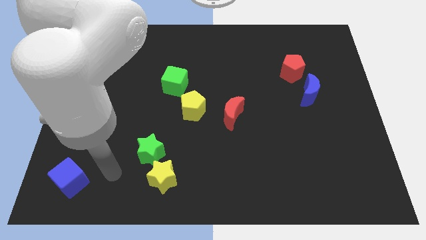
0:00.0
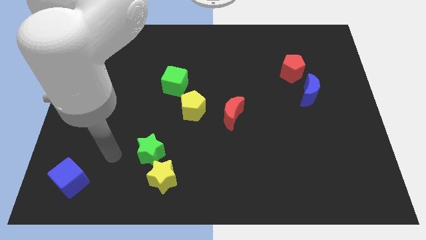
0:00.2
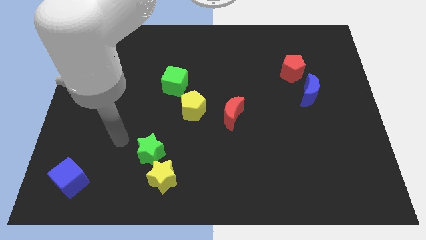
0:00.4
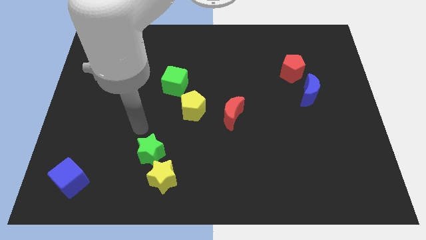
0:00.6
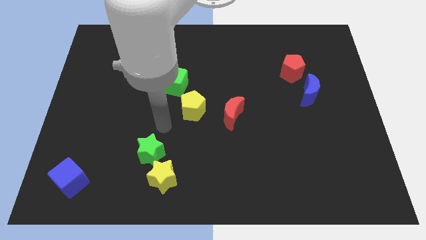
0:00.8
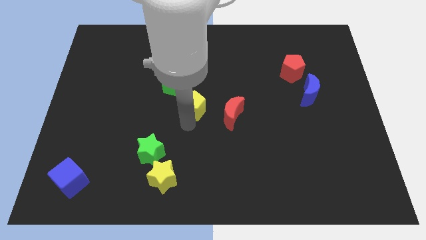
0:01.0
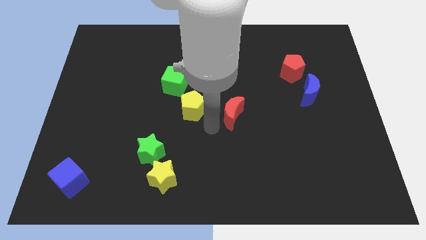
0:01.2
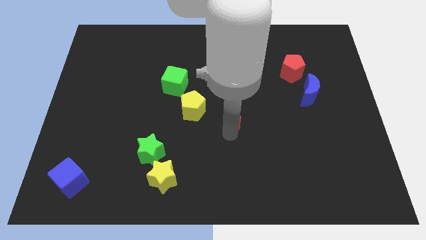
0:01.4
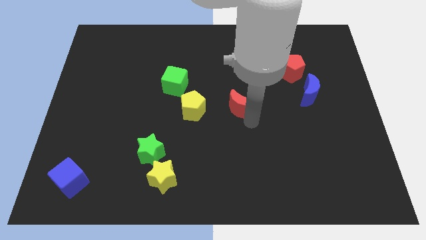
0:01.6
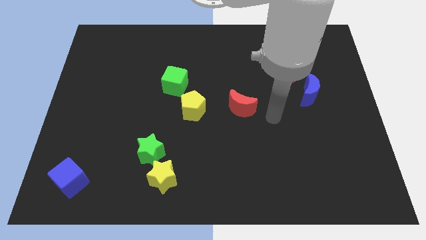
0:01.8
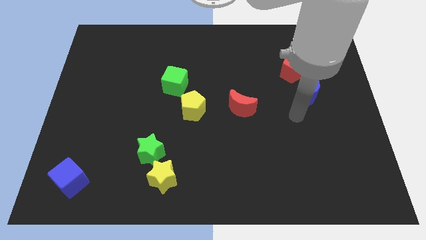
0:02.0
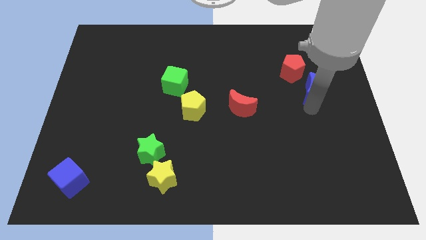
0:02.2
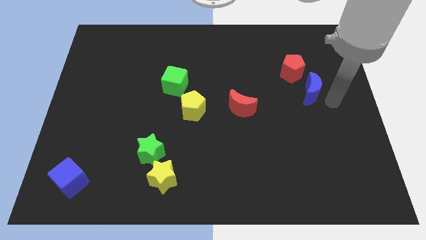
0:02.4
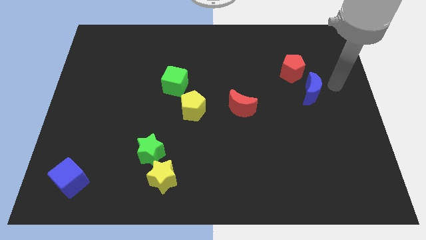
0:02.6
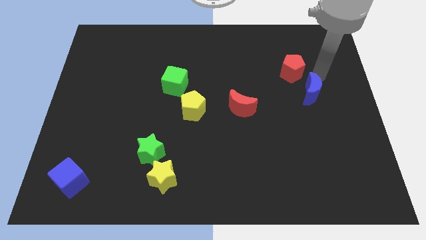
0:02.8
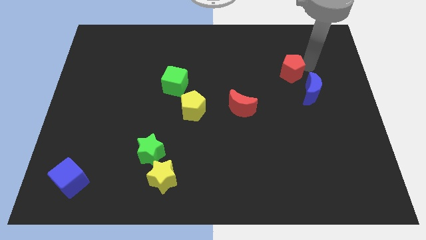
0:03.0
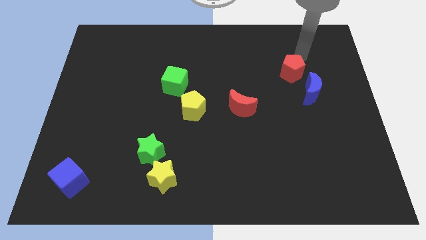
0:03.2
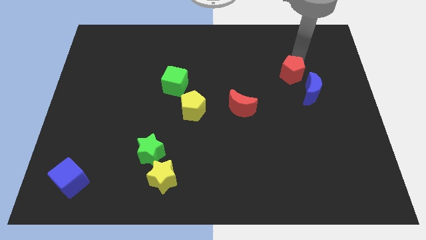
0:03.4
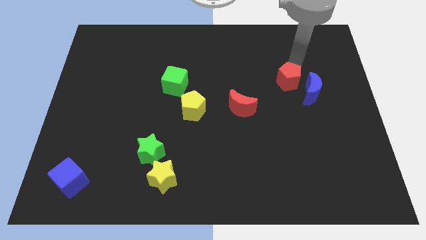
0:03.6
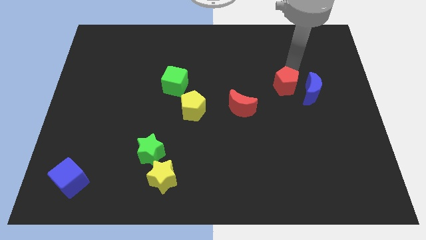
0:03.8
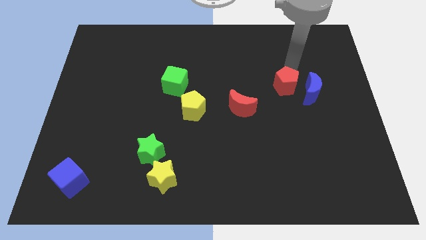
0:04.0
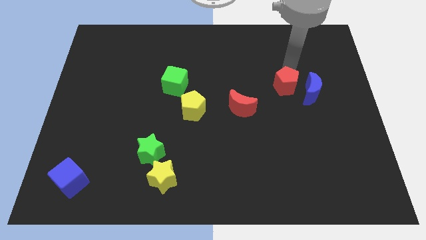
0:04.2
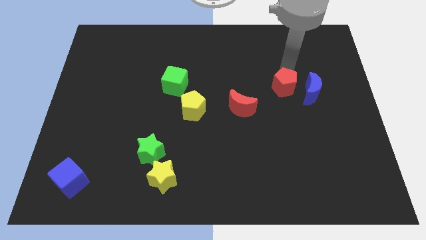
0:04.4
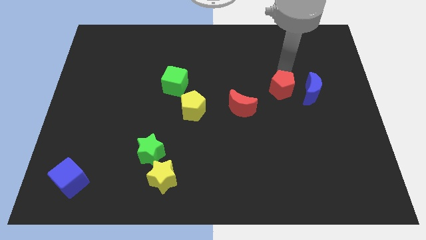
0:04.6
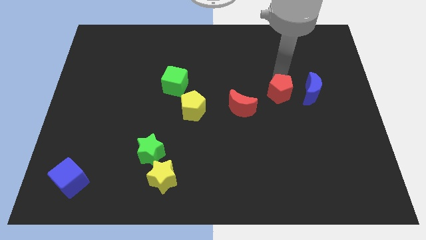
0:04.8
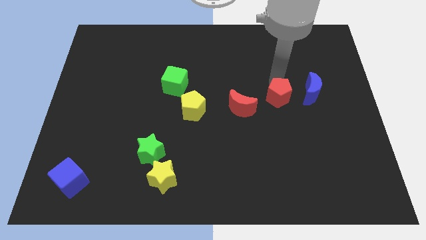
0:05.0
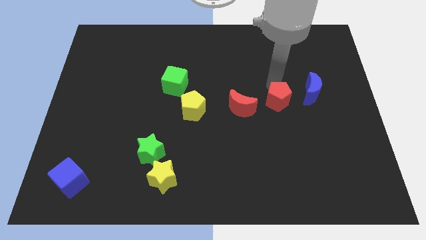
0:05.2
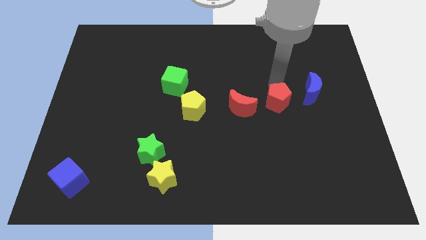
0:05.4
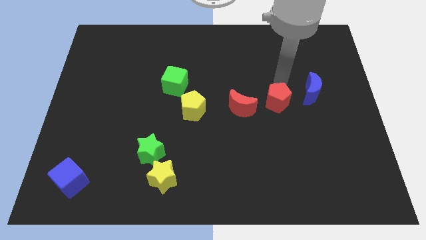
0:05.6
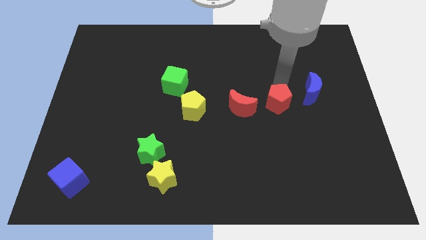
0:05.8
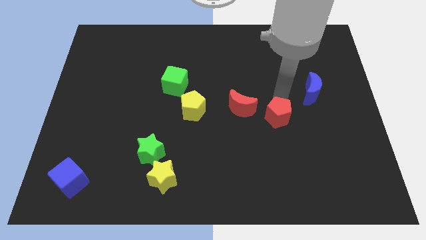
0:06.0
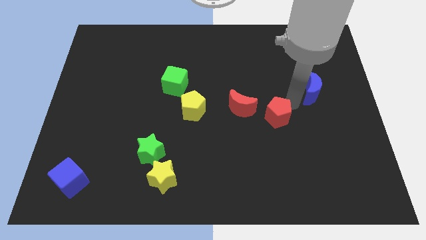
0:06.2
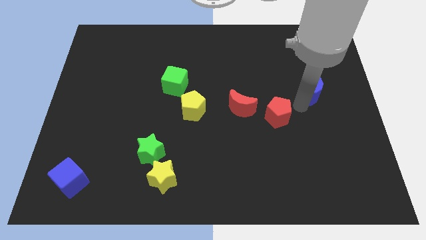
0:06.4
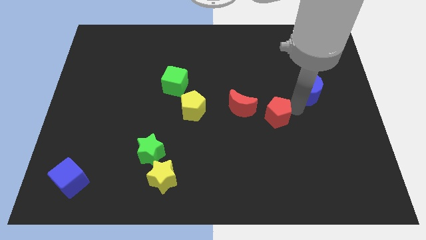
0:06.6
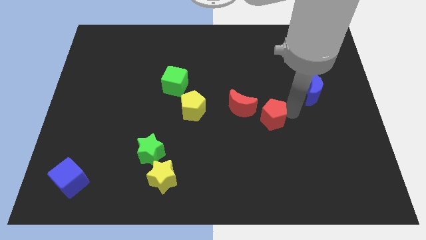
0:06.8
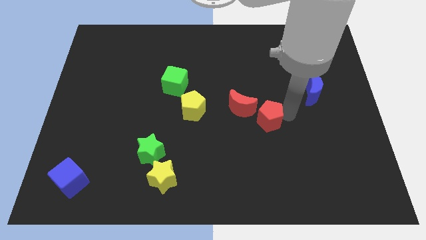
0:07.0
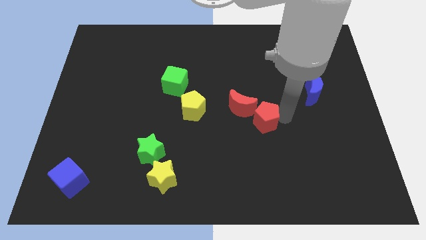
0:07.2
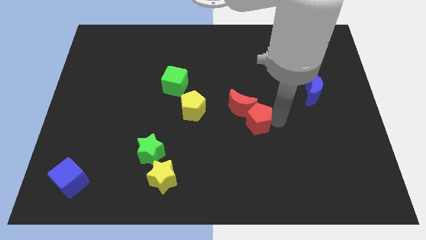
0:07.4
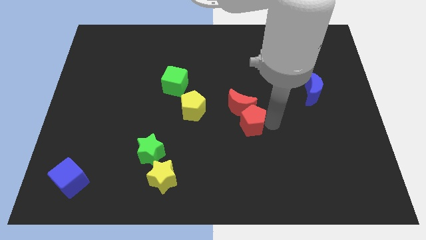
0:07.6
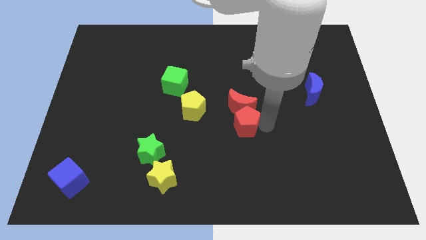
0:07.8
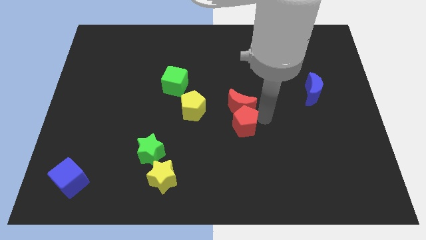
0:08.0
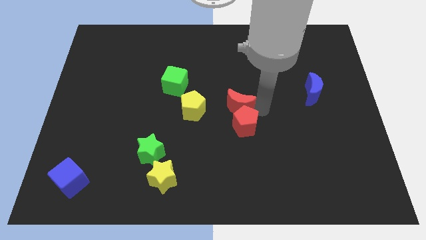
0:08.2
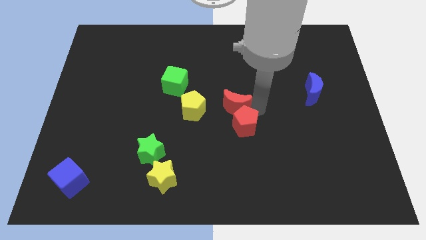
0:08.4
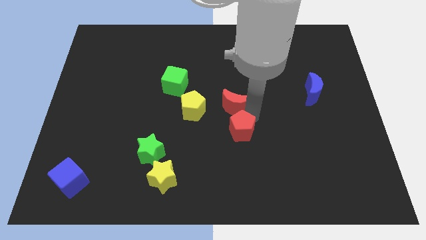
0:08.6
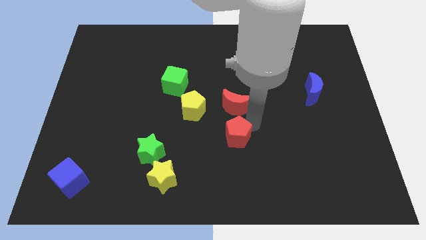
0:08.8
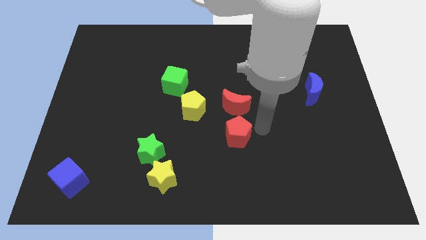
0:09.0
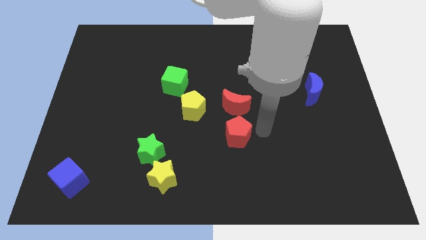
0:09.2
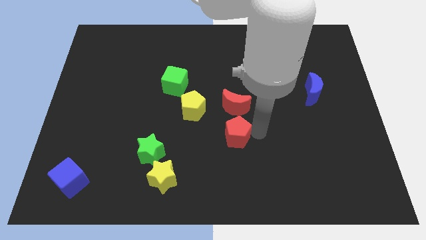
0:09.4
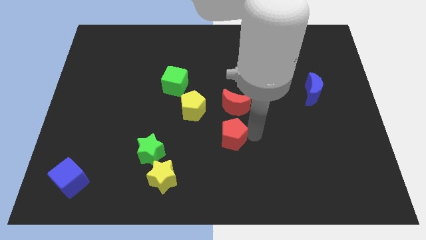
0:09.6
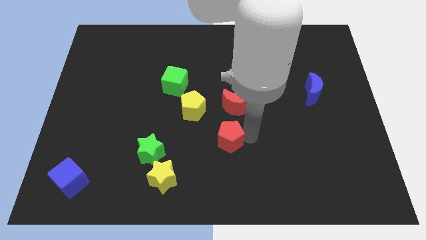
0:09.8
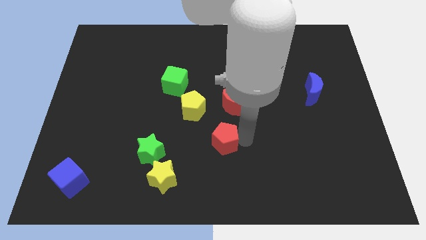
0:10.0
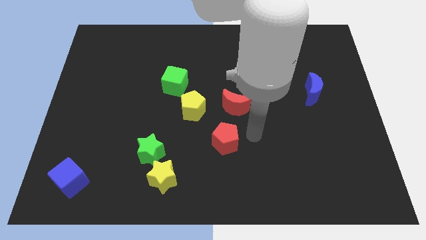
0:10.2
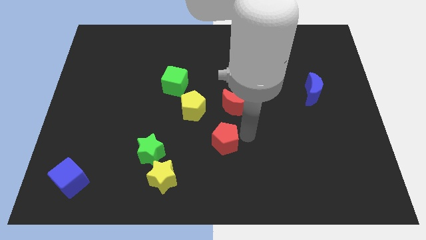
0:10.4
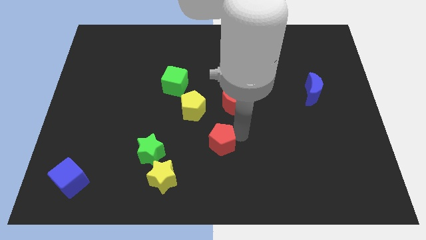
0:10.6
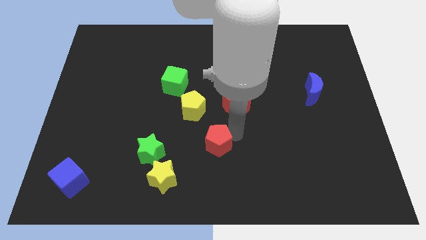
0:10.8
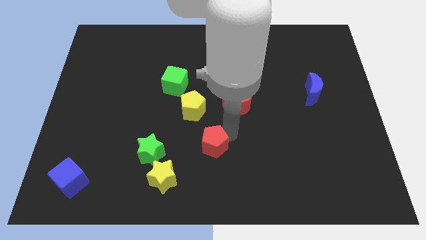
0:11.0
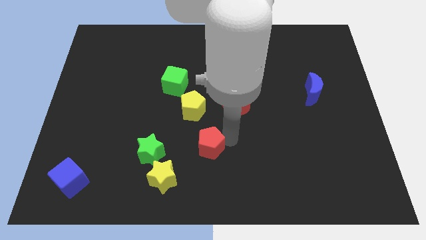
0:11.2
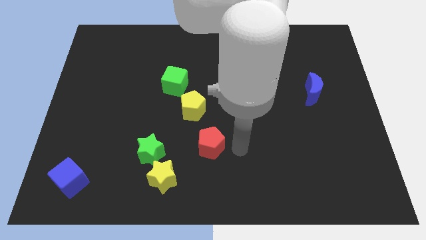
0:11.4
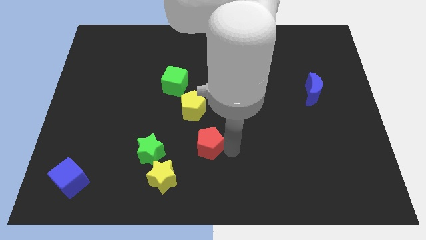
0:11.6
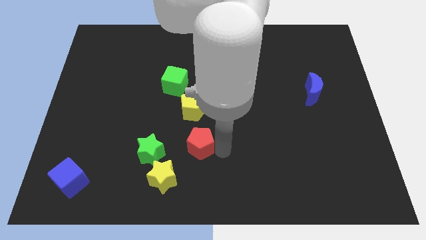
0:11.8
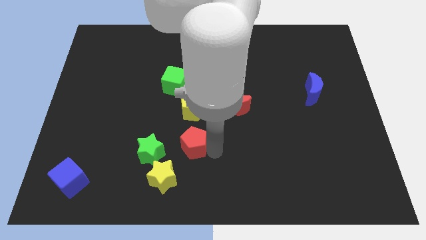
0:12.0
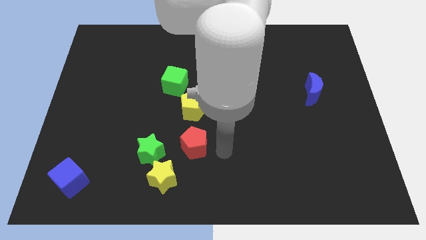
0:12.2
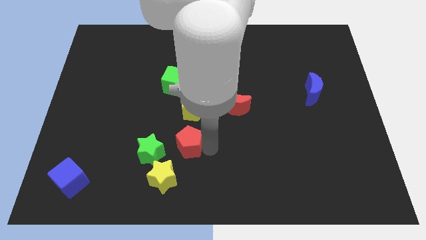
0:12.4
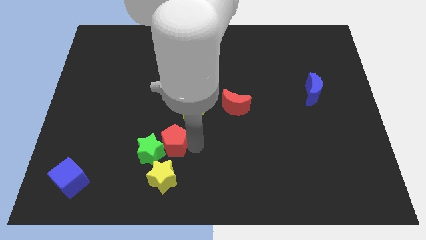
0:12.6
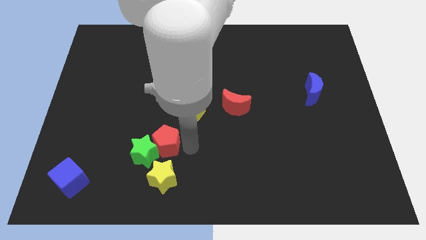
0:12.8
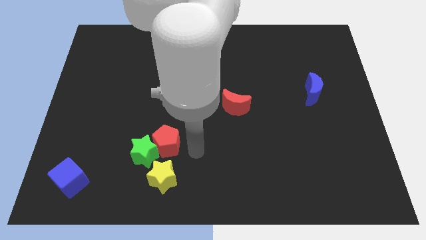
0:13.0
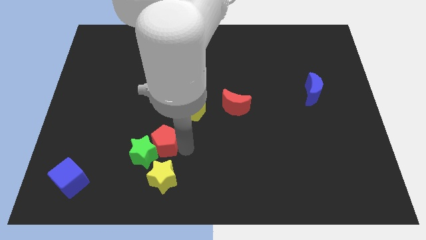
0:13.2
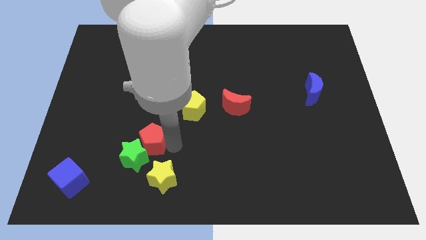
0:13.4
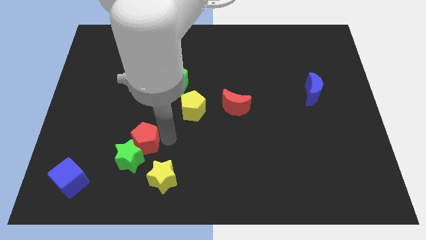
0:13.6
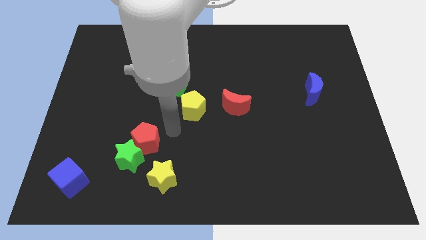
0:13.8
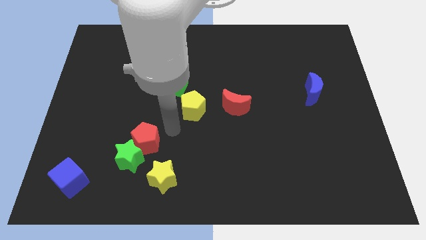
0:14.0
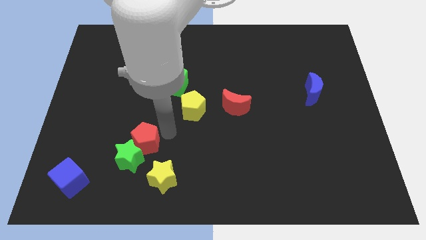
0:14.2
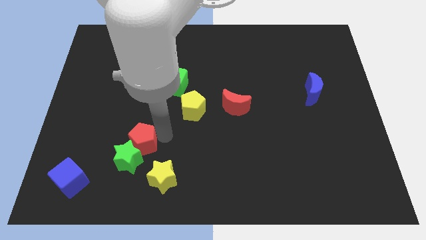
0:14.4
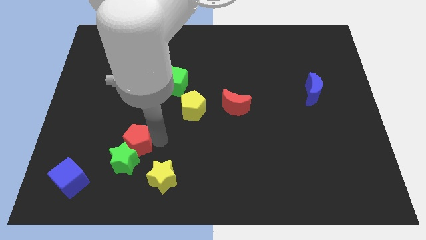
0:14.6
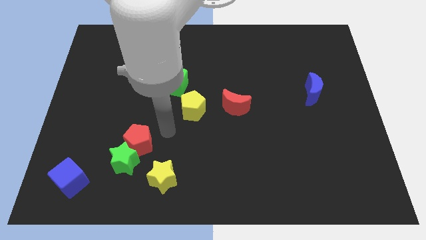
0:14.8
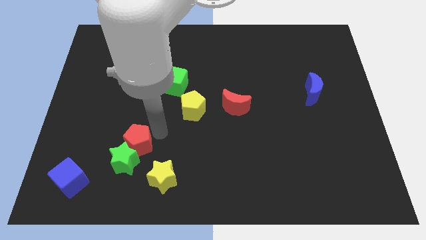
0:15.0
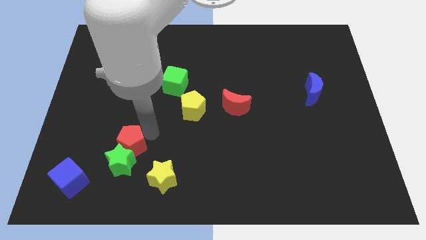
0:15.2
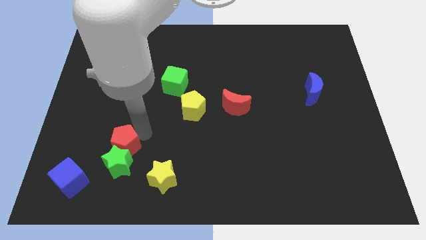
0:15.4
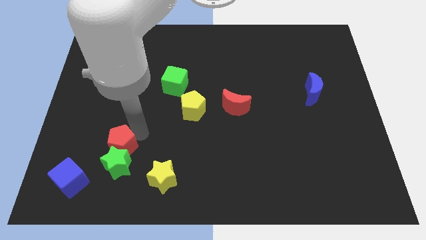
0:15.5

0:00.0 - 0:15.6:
put the red pentagon to the top right of the blue cube
